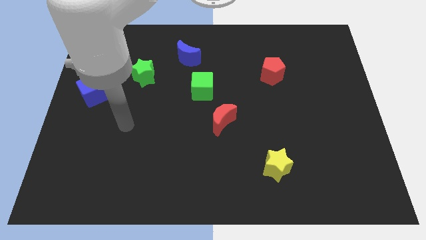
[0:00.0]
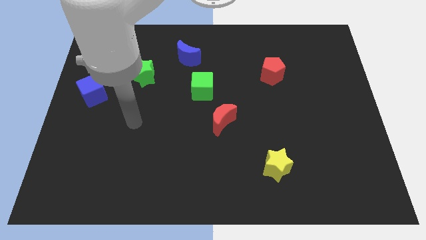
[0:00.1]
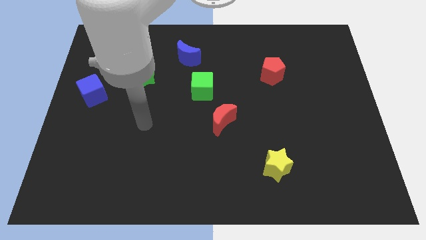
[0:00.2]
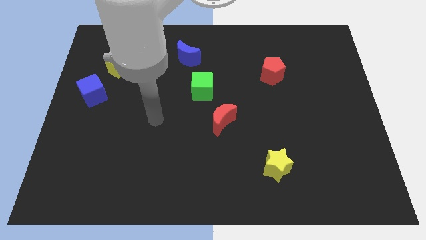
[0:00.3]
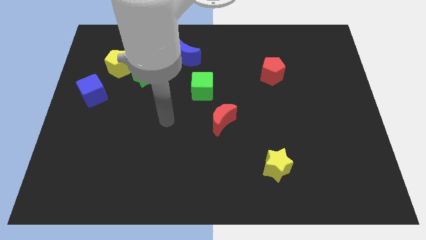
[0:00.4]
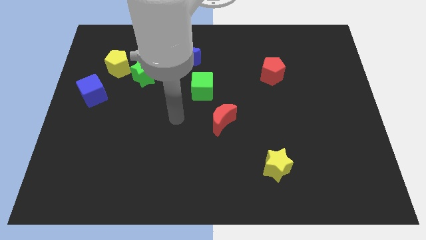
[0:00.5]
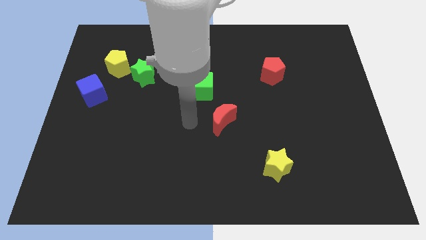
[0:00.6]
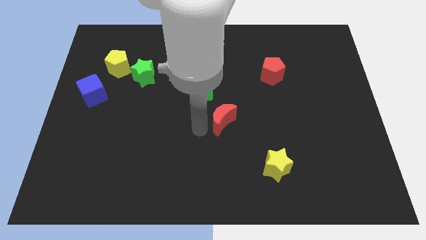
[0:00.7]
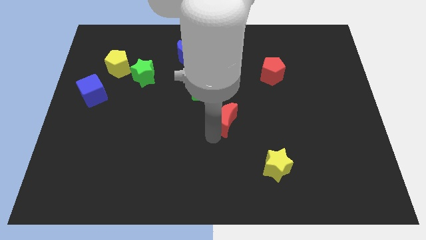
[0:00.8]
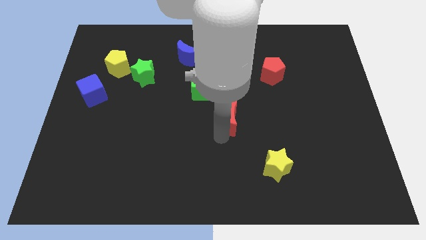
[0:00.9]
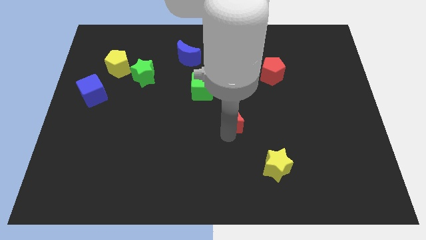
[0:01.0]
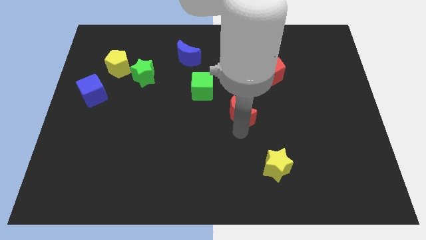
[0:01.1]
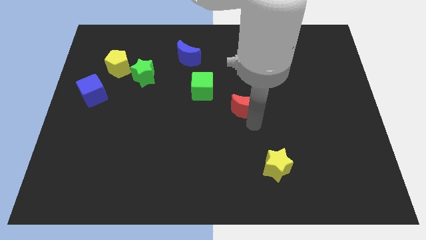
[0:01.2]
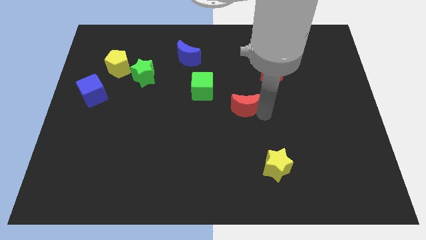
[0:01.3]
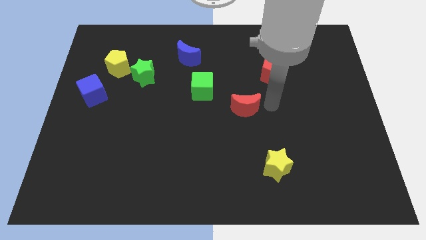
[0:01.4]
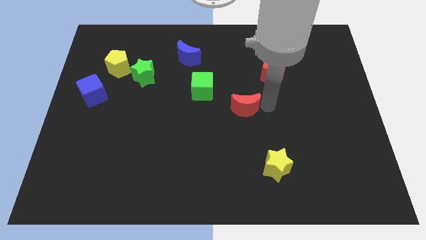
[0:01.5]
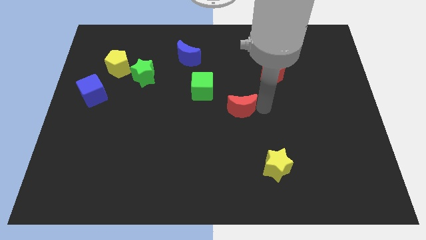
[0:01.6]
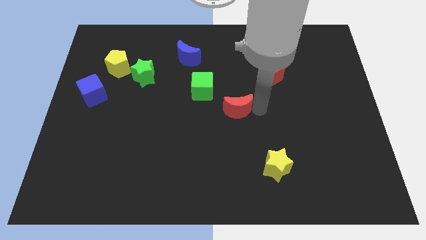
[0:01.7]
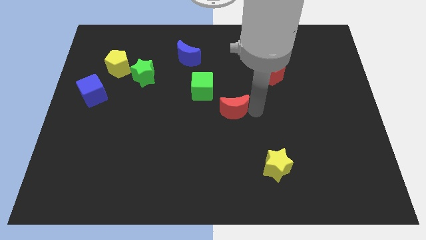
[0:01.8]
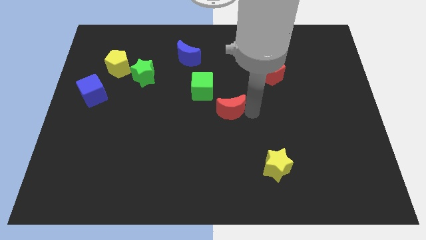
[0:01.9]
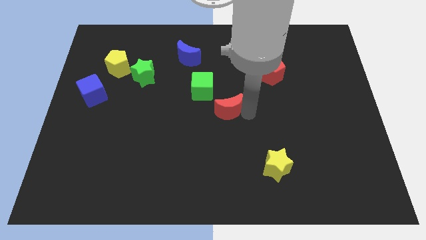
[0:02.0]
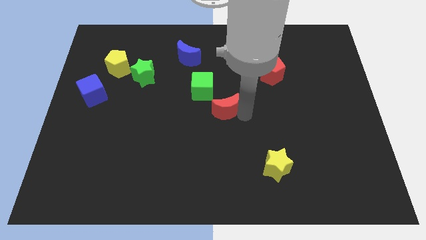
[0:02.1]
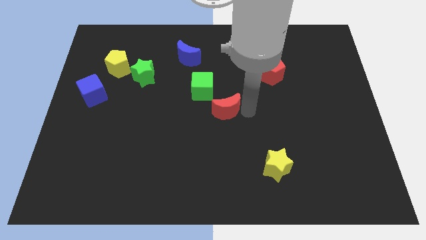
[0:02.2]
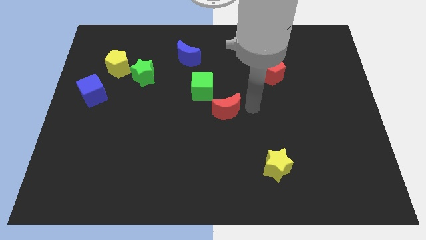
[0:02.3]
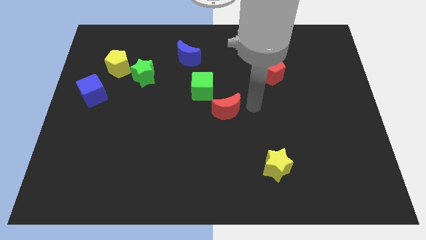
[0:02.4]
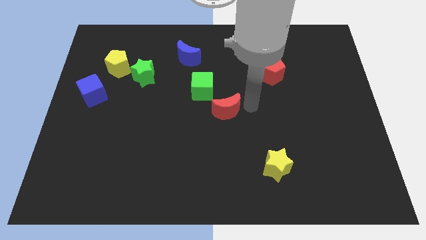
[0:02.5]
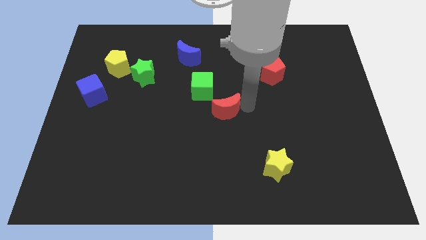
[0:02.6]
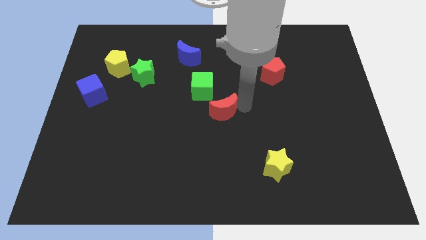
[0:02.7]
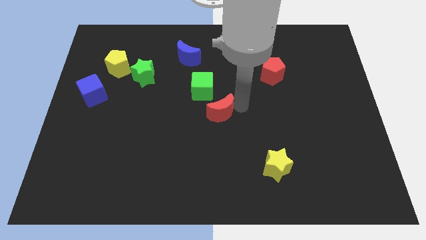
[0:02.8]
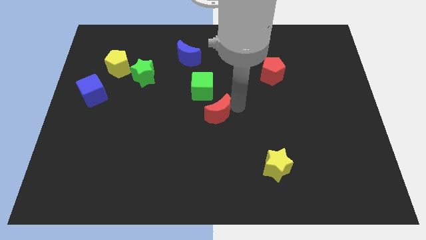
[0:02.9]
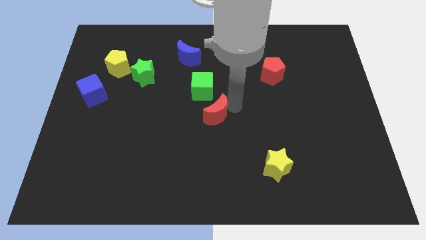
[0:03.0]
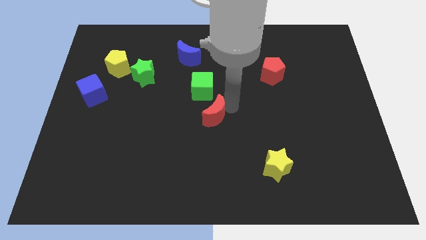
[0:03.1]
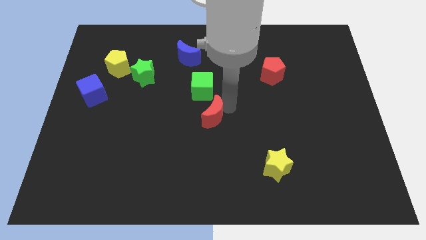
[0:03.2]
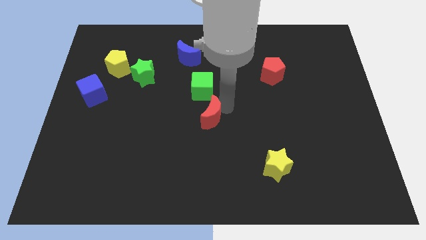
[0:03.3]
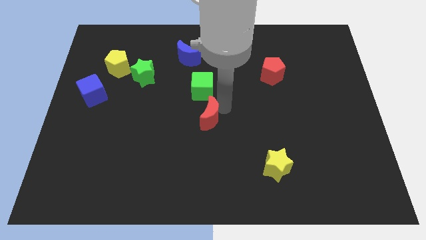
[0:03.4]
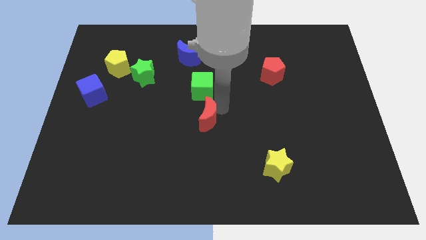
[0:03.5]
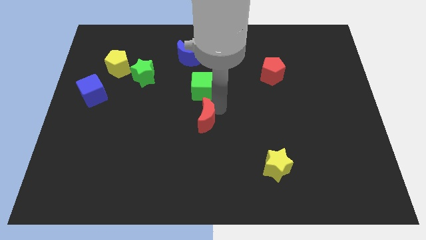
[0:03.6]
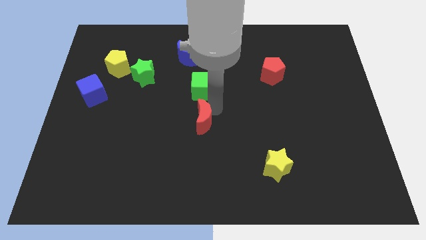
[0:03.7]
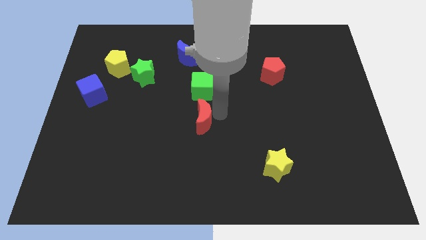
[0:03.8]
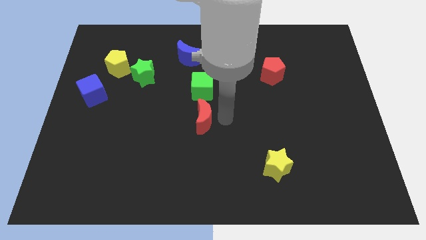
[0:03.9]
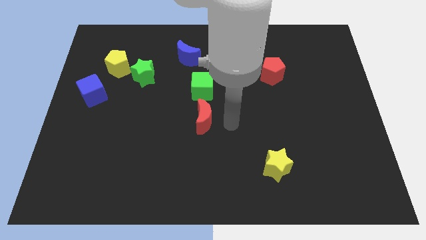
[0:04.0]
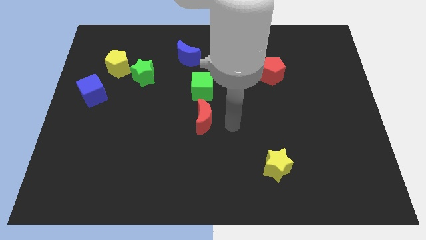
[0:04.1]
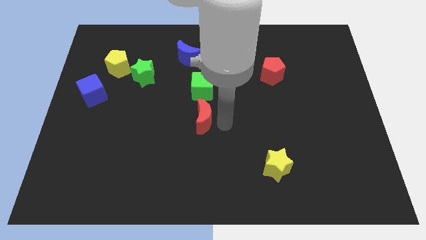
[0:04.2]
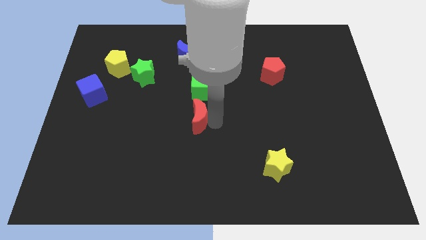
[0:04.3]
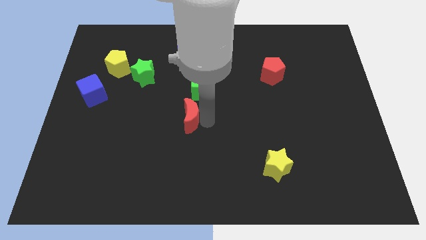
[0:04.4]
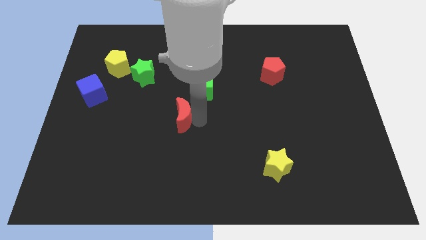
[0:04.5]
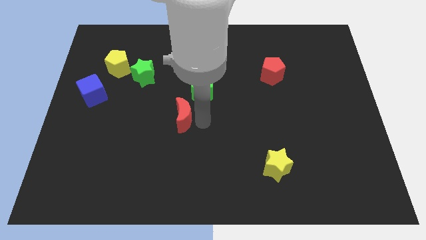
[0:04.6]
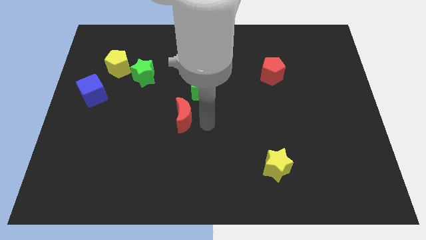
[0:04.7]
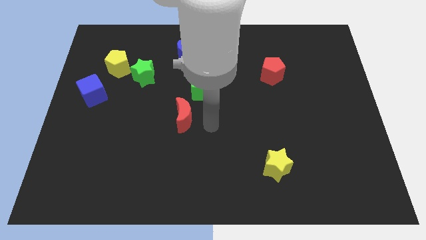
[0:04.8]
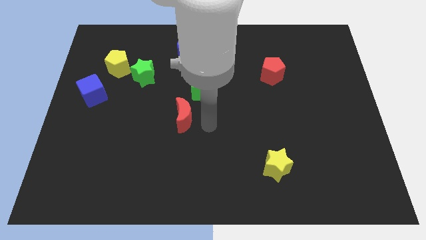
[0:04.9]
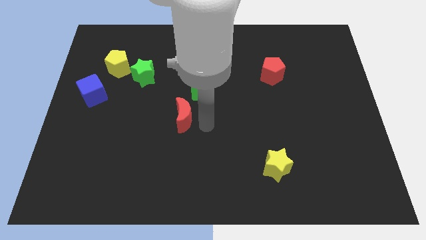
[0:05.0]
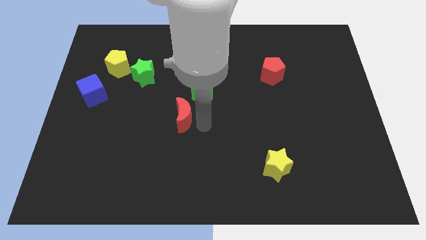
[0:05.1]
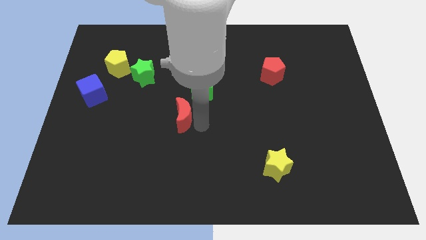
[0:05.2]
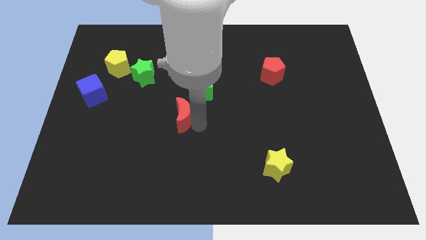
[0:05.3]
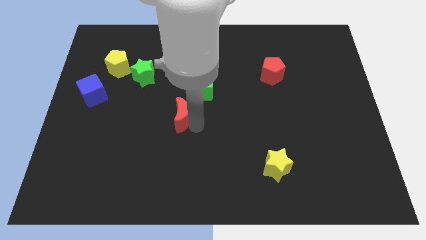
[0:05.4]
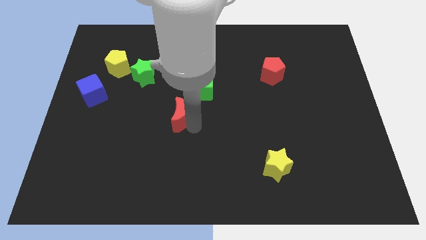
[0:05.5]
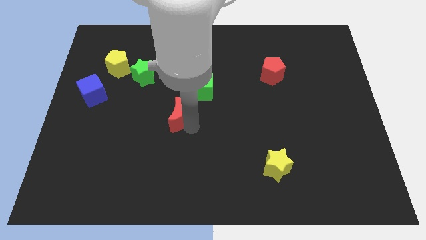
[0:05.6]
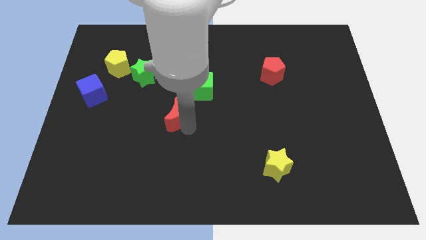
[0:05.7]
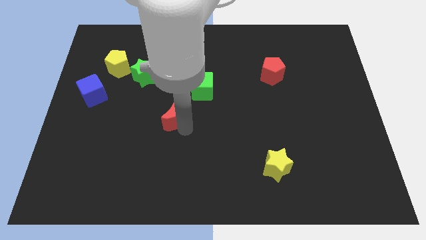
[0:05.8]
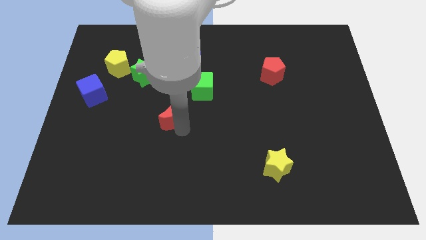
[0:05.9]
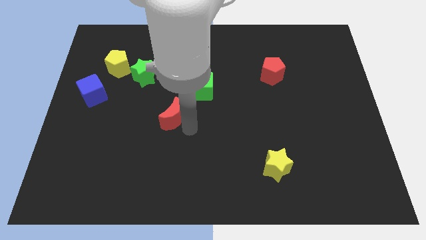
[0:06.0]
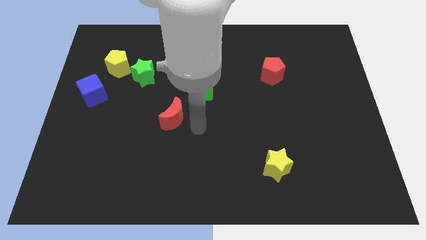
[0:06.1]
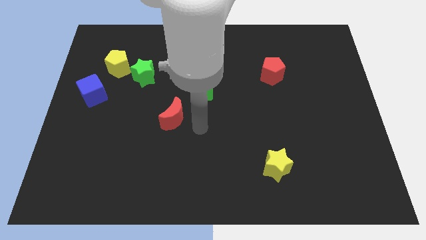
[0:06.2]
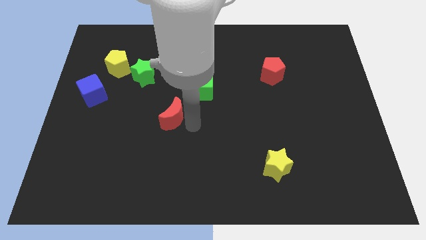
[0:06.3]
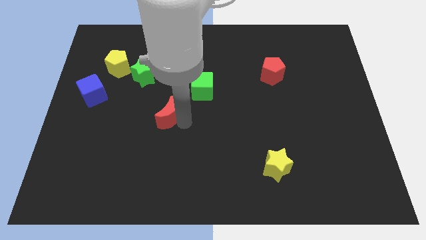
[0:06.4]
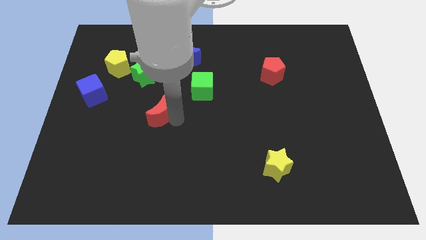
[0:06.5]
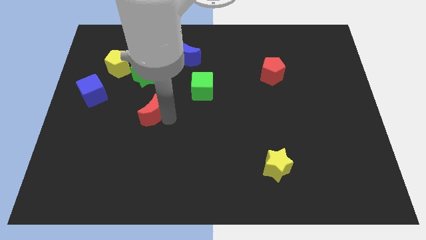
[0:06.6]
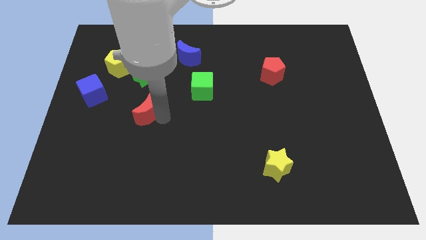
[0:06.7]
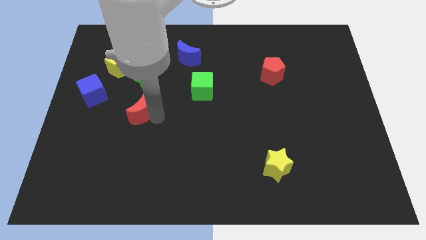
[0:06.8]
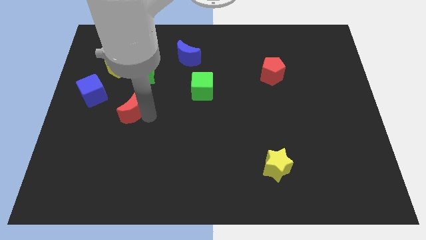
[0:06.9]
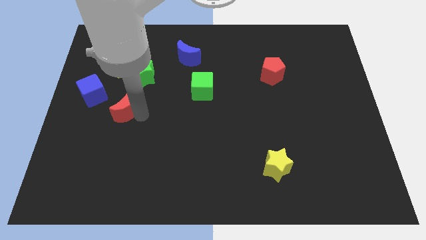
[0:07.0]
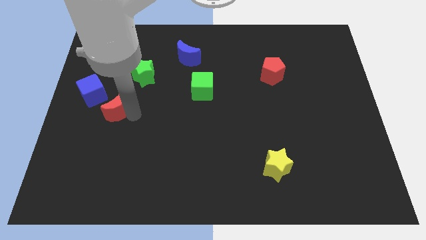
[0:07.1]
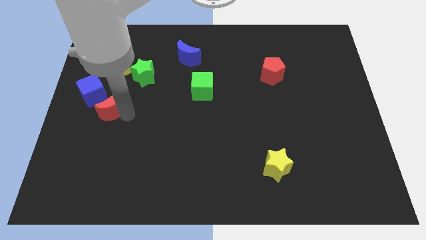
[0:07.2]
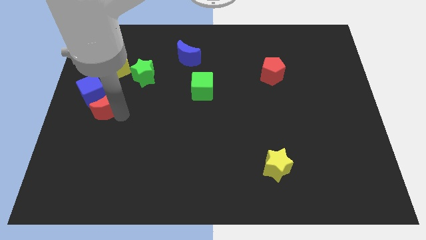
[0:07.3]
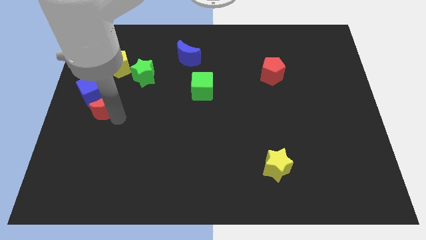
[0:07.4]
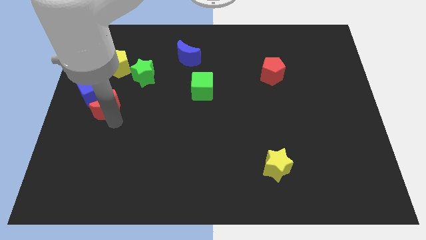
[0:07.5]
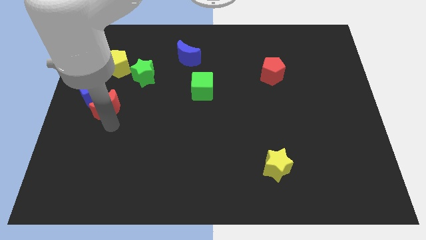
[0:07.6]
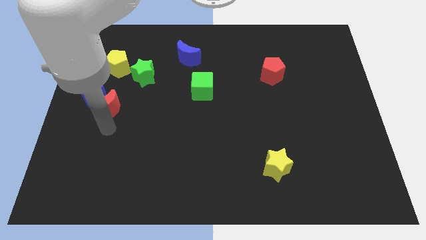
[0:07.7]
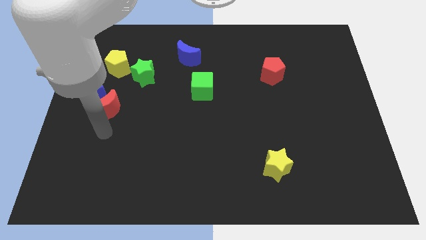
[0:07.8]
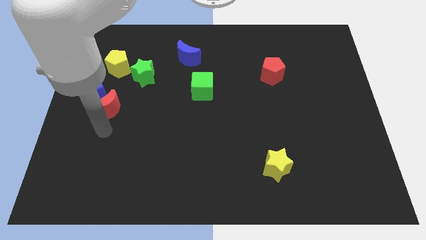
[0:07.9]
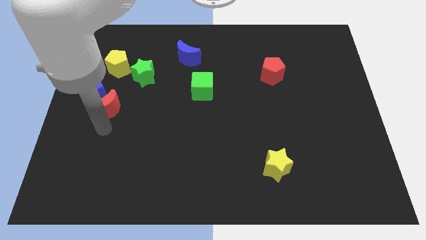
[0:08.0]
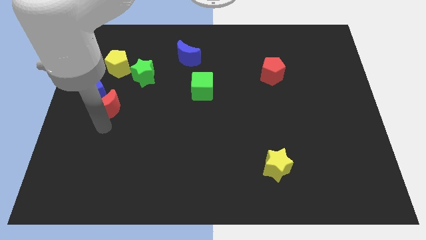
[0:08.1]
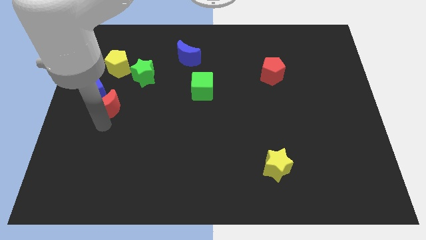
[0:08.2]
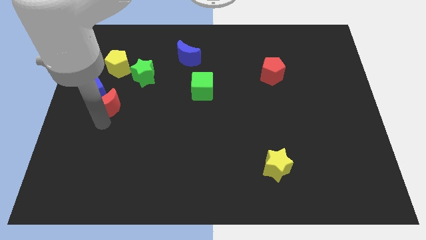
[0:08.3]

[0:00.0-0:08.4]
move the red moon towards the blue cube
